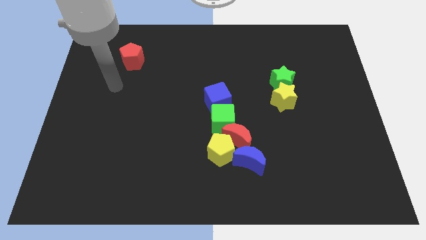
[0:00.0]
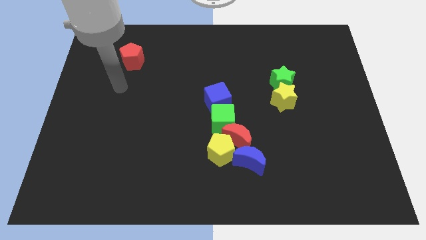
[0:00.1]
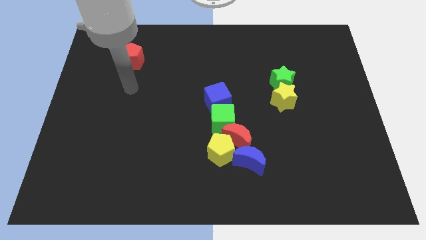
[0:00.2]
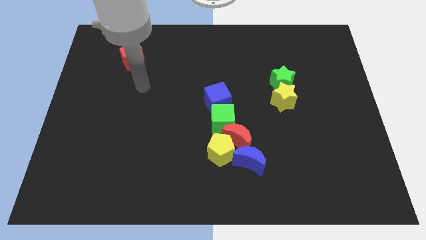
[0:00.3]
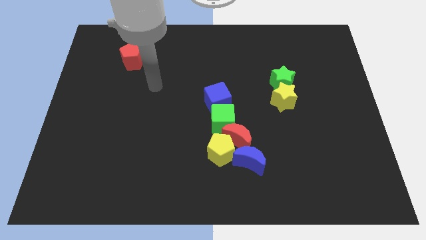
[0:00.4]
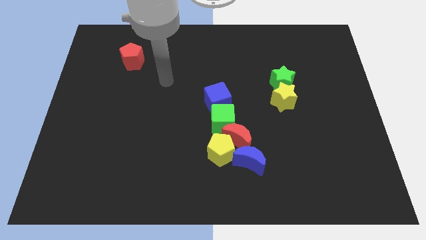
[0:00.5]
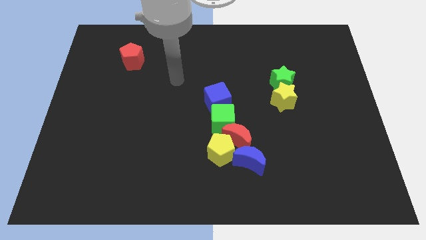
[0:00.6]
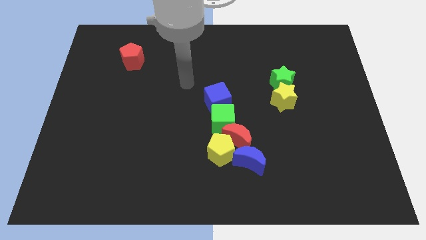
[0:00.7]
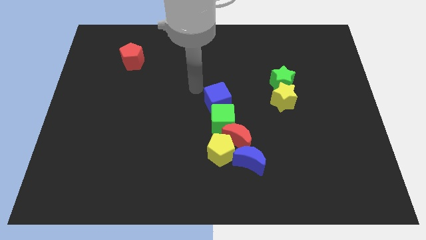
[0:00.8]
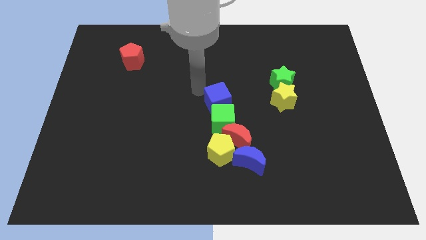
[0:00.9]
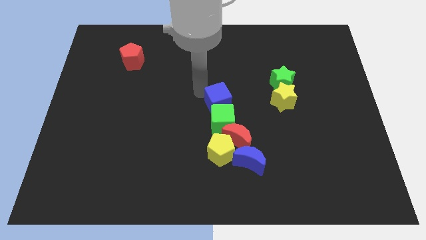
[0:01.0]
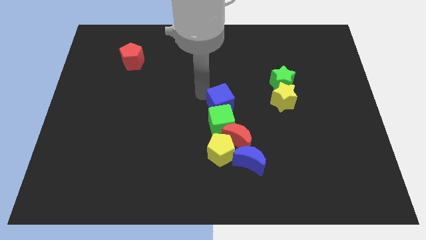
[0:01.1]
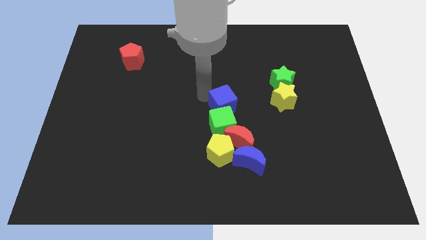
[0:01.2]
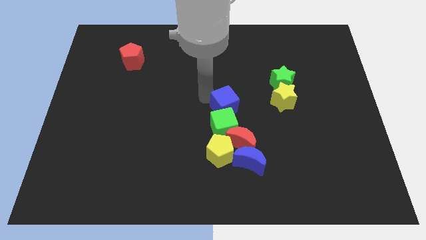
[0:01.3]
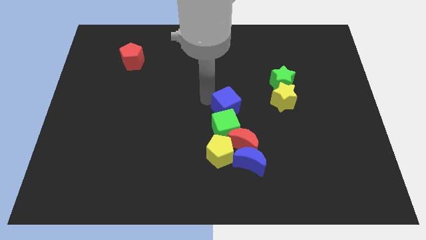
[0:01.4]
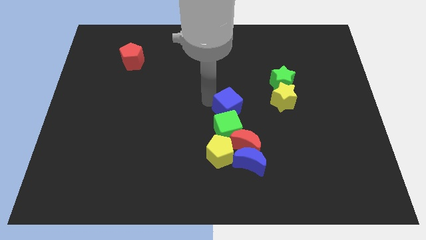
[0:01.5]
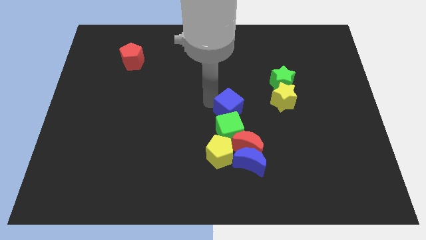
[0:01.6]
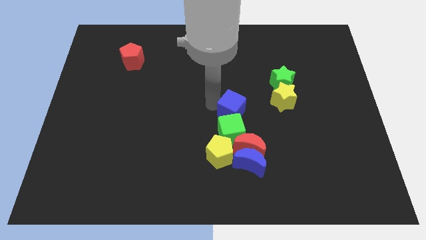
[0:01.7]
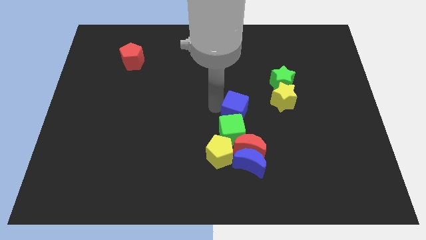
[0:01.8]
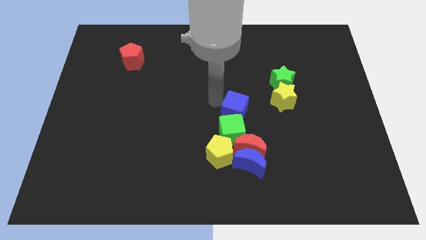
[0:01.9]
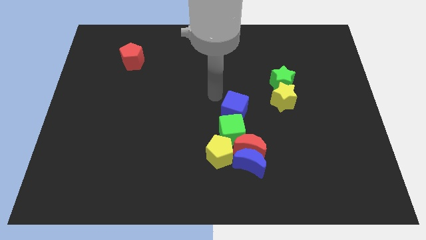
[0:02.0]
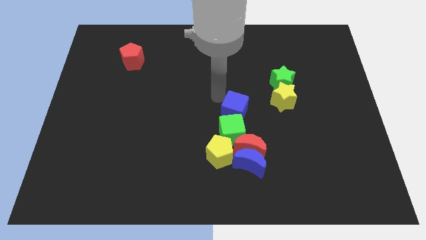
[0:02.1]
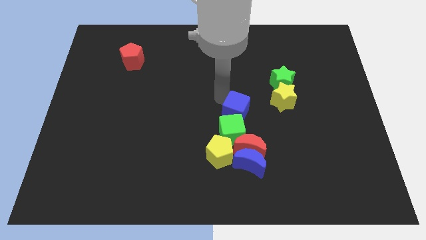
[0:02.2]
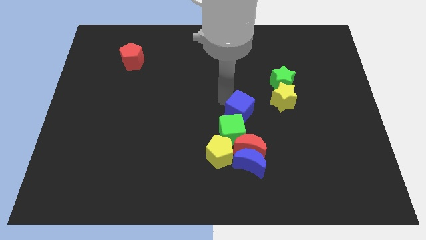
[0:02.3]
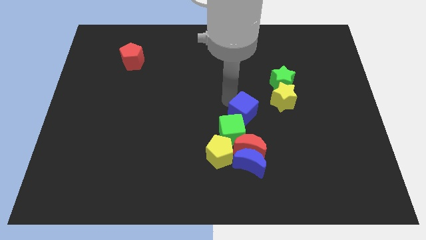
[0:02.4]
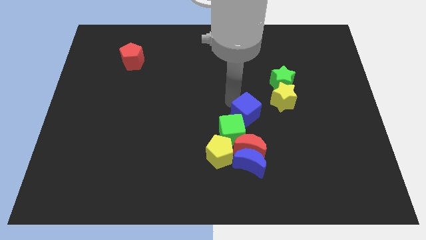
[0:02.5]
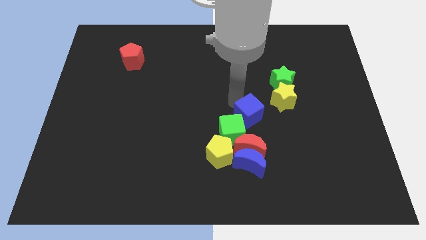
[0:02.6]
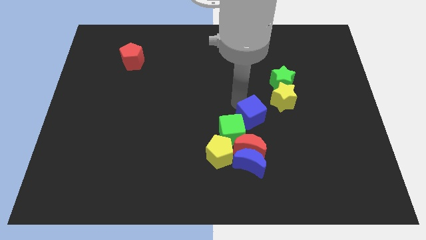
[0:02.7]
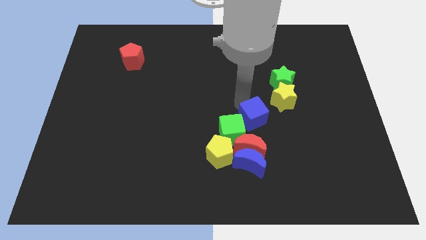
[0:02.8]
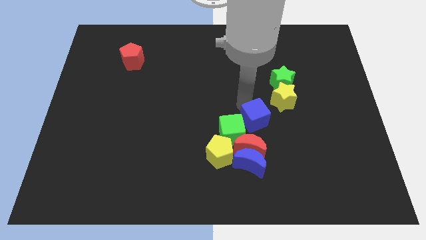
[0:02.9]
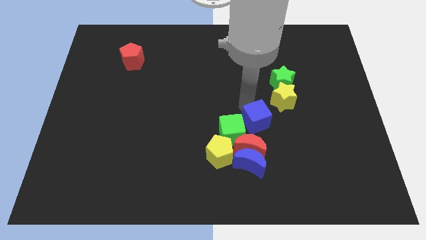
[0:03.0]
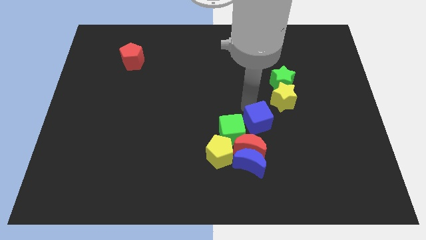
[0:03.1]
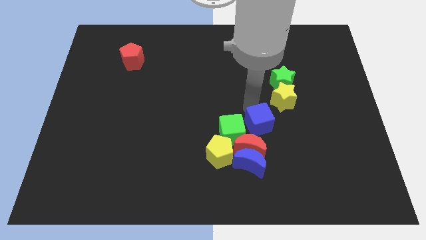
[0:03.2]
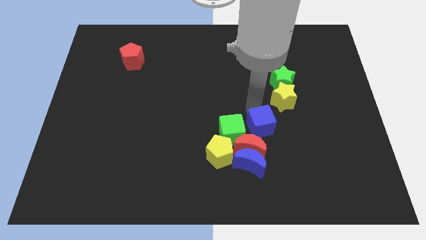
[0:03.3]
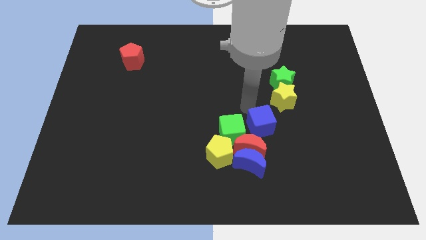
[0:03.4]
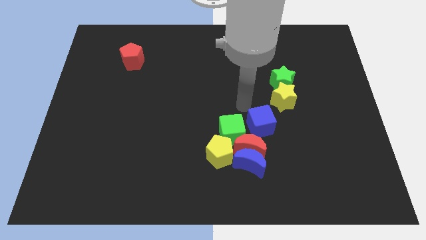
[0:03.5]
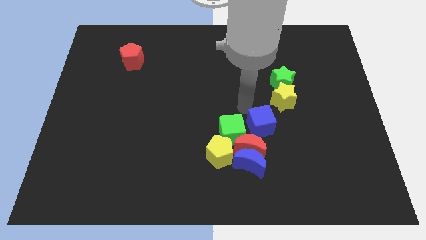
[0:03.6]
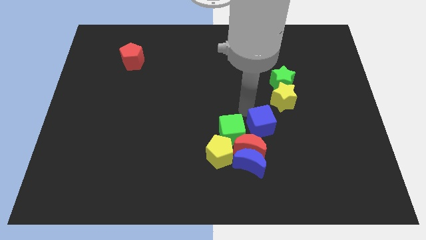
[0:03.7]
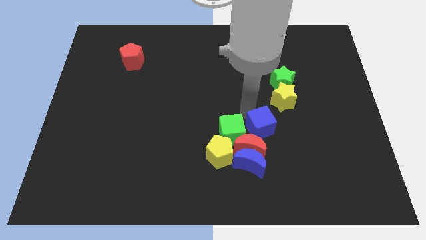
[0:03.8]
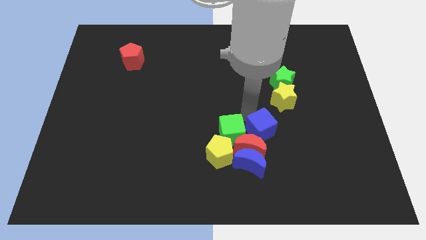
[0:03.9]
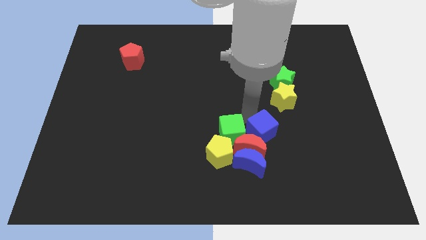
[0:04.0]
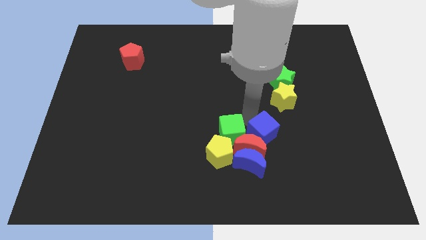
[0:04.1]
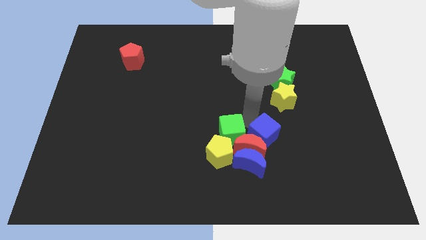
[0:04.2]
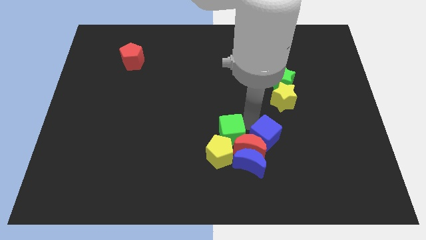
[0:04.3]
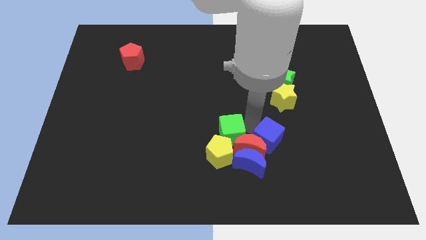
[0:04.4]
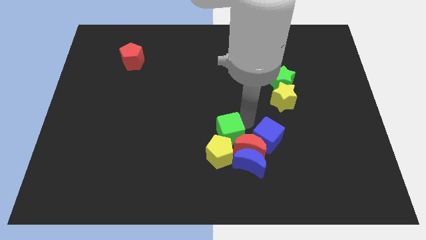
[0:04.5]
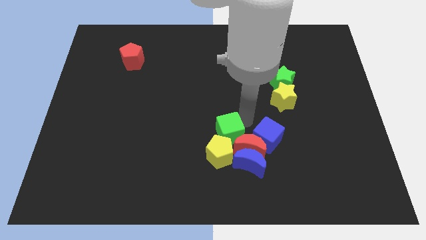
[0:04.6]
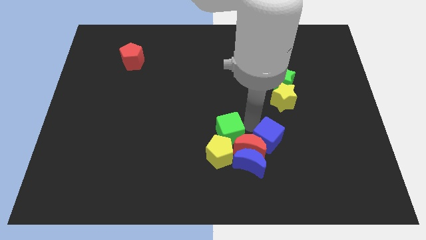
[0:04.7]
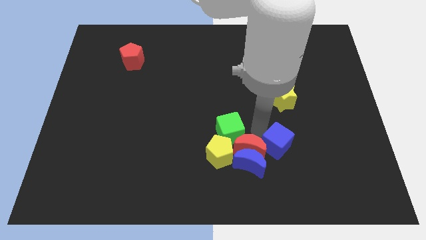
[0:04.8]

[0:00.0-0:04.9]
put the blue cube to the right side of the blue moon

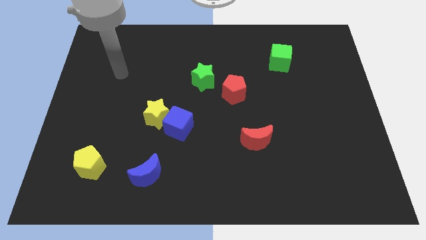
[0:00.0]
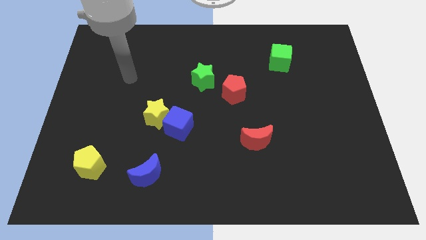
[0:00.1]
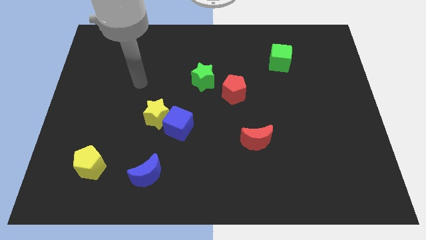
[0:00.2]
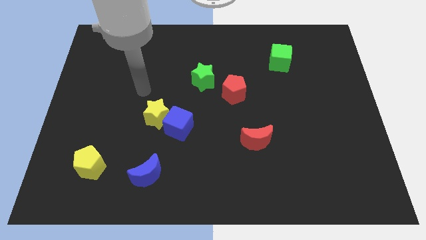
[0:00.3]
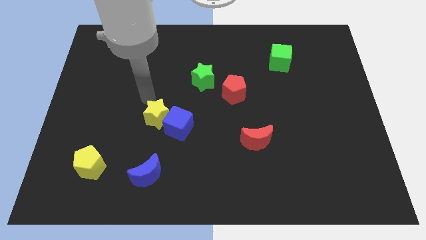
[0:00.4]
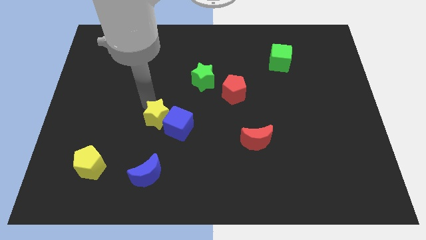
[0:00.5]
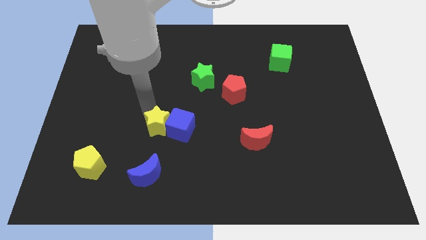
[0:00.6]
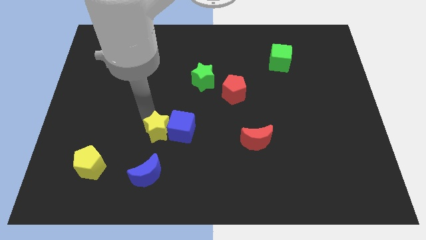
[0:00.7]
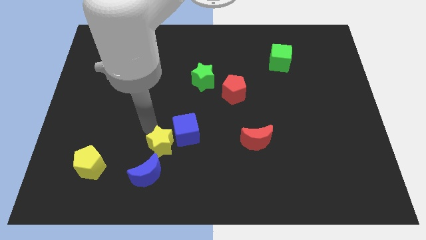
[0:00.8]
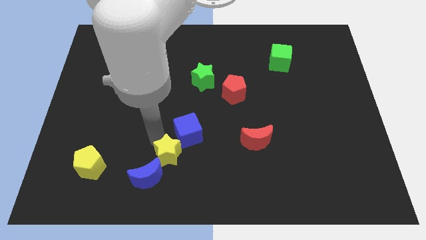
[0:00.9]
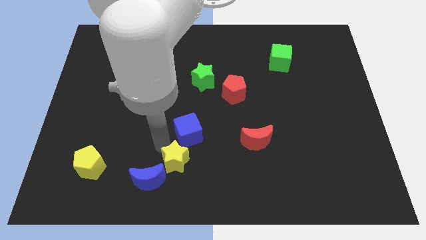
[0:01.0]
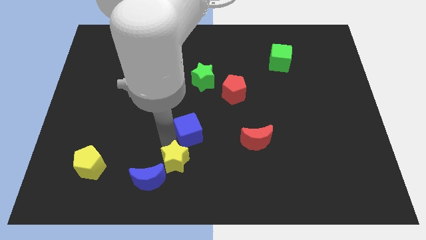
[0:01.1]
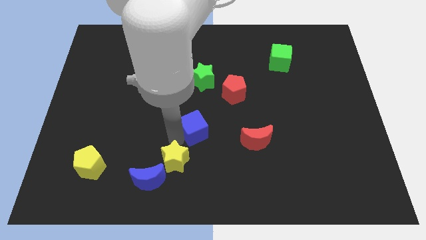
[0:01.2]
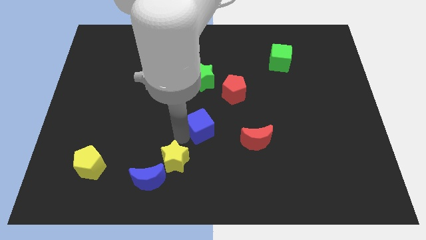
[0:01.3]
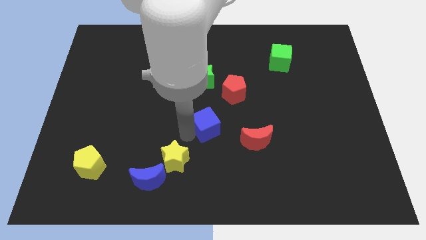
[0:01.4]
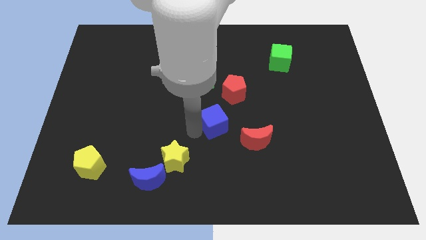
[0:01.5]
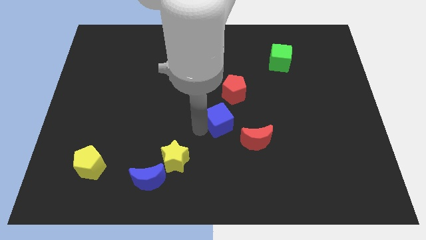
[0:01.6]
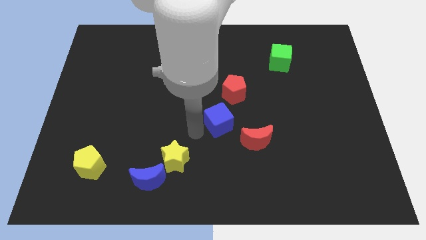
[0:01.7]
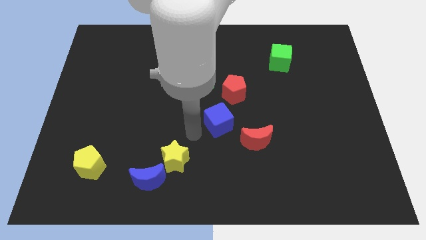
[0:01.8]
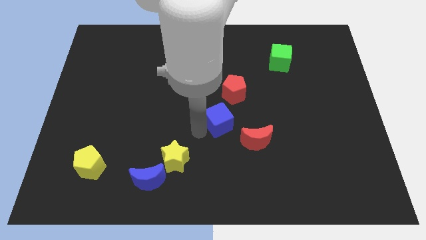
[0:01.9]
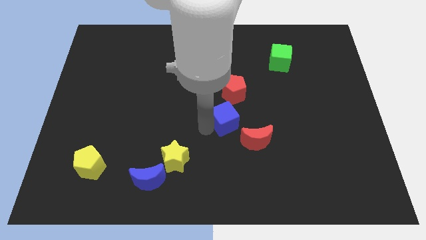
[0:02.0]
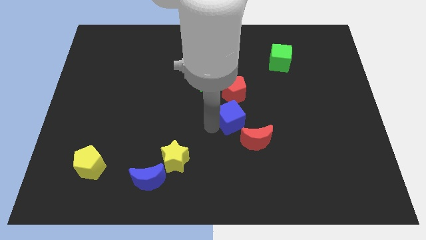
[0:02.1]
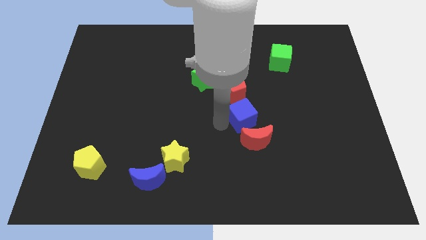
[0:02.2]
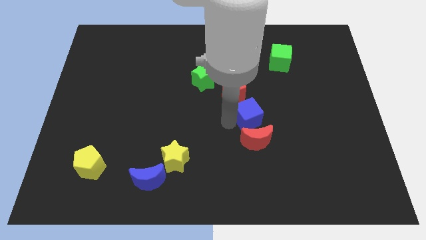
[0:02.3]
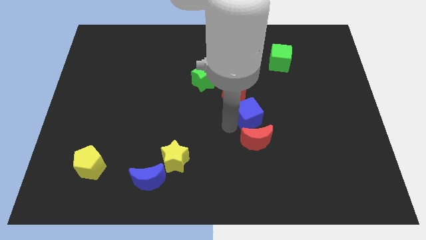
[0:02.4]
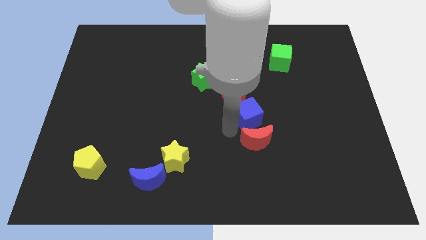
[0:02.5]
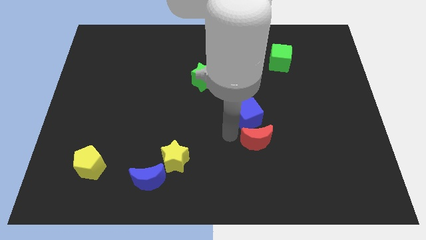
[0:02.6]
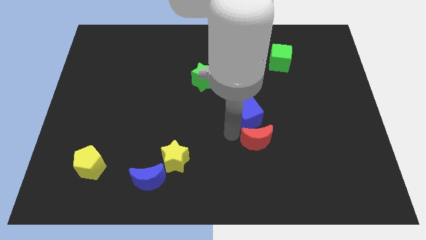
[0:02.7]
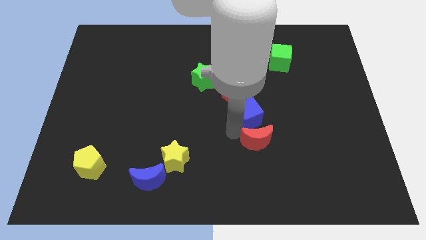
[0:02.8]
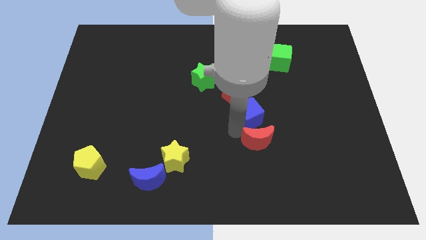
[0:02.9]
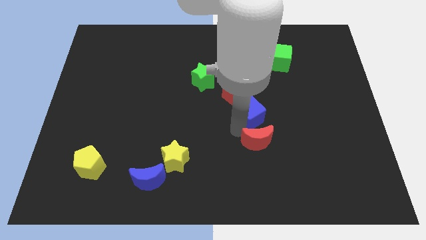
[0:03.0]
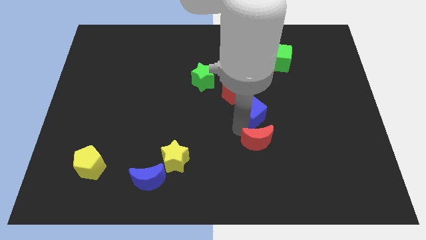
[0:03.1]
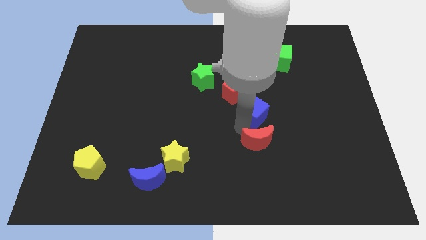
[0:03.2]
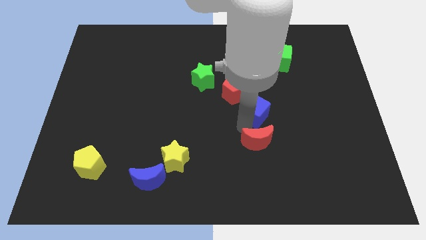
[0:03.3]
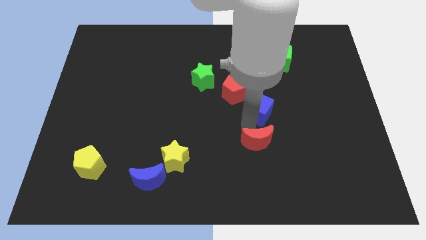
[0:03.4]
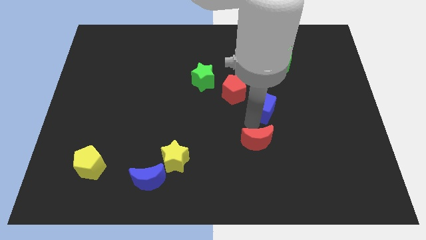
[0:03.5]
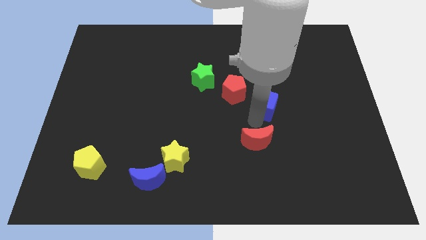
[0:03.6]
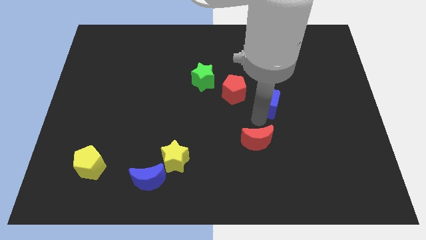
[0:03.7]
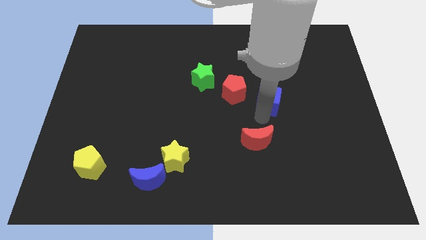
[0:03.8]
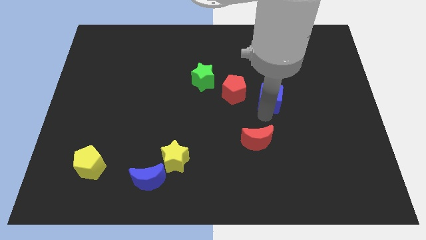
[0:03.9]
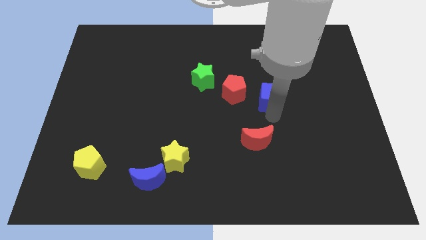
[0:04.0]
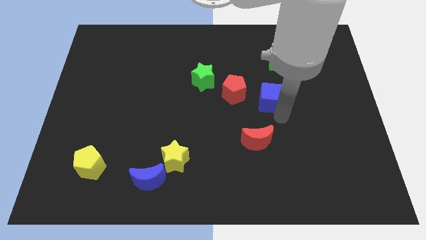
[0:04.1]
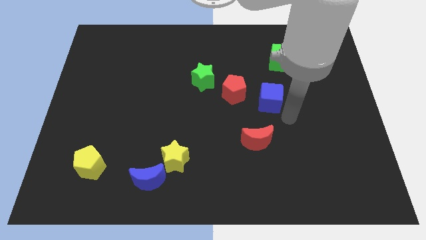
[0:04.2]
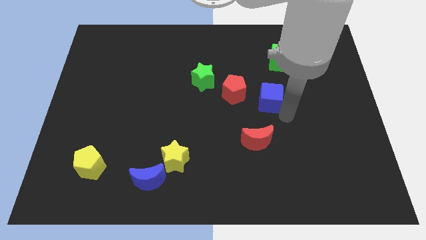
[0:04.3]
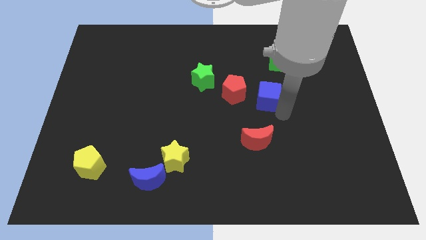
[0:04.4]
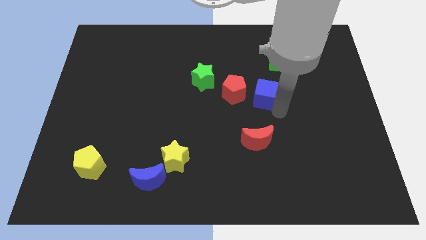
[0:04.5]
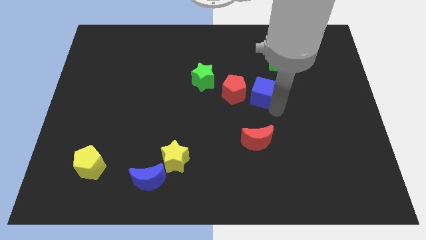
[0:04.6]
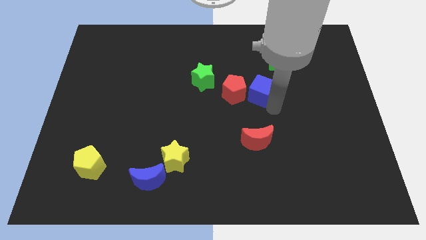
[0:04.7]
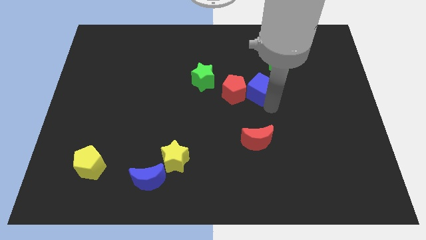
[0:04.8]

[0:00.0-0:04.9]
push the blue cube to the right side of the green star
